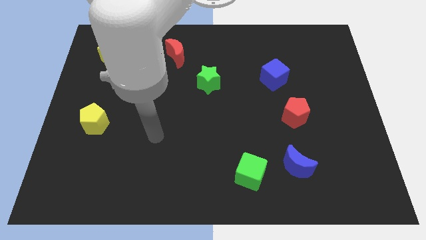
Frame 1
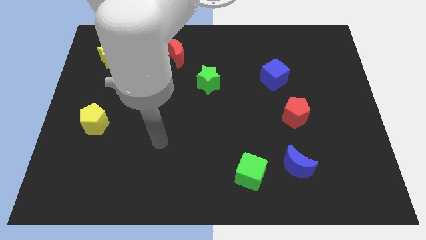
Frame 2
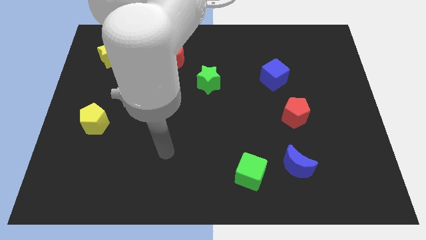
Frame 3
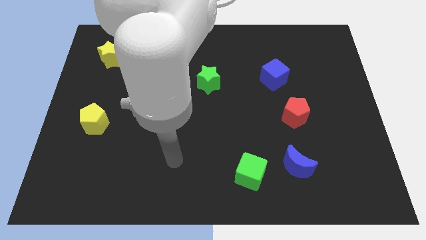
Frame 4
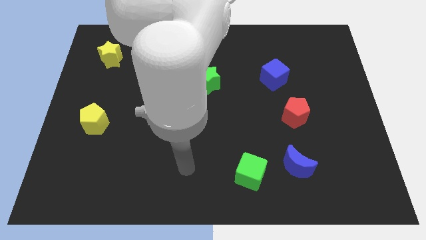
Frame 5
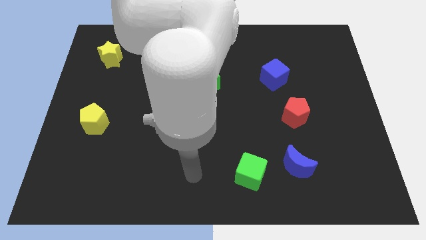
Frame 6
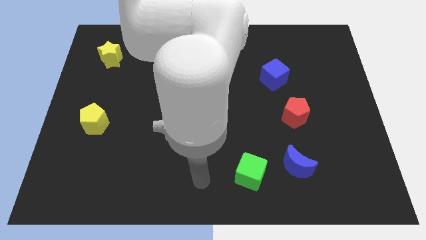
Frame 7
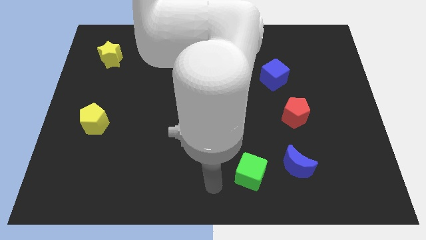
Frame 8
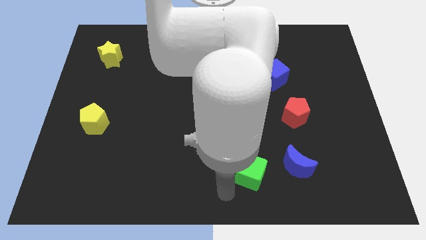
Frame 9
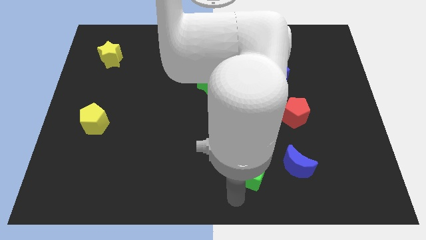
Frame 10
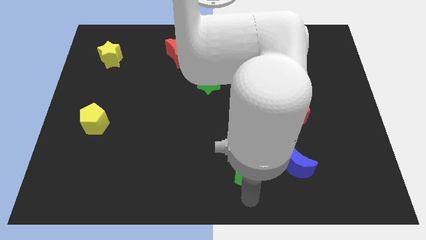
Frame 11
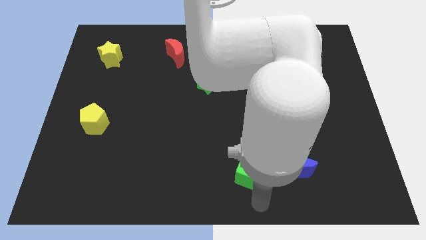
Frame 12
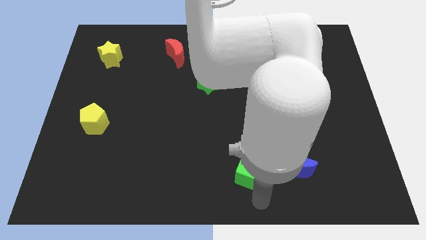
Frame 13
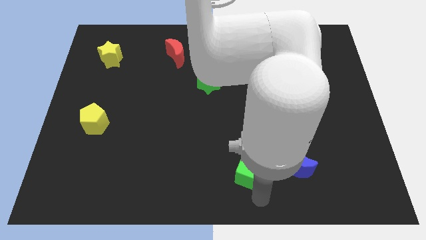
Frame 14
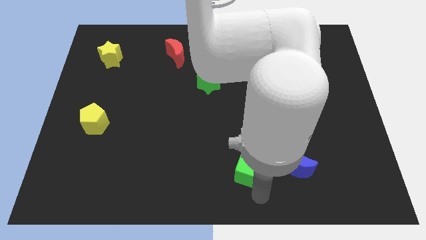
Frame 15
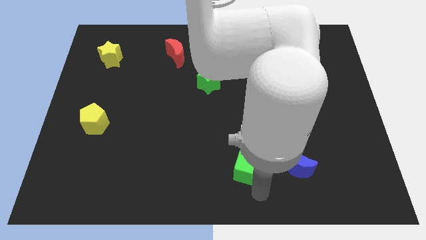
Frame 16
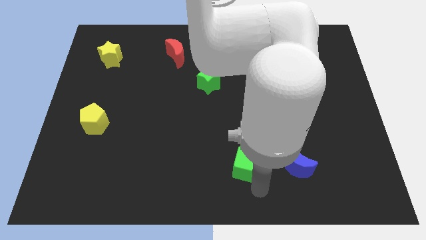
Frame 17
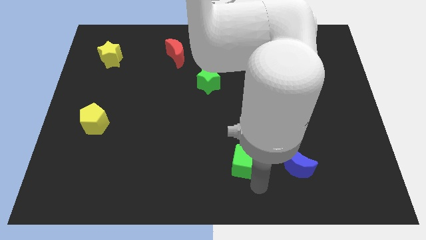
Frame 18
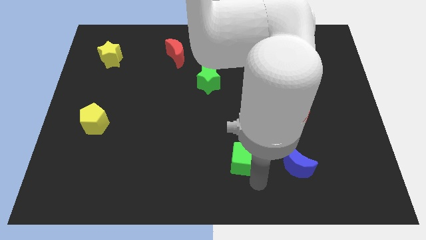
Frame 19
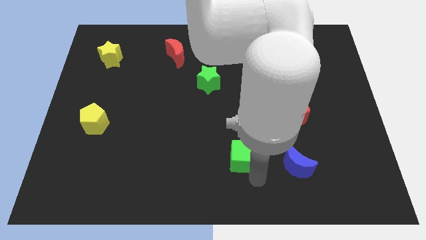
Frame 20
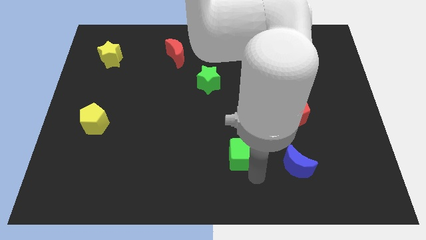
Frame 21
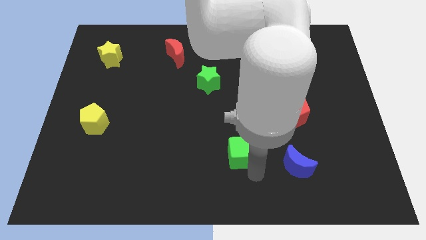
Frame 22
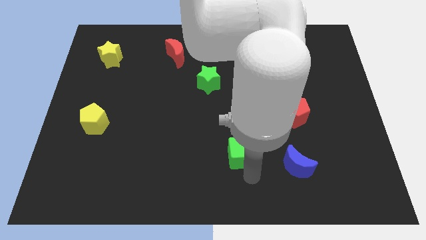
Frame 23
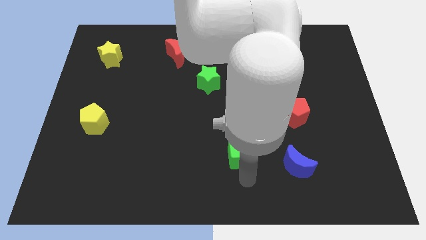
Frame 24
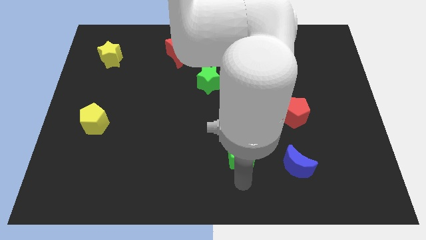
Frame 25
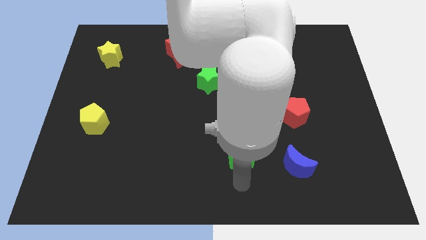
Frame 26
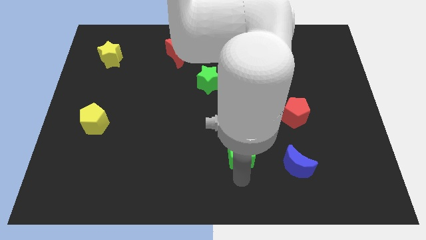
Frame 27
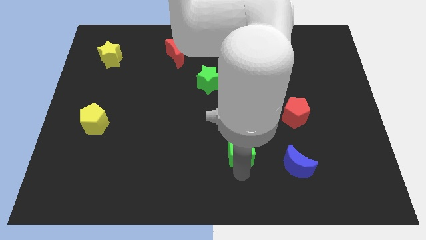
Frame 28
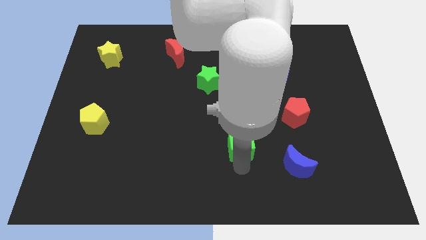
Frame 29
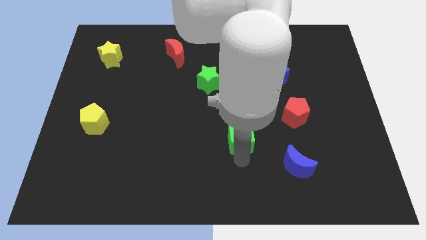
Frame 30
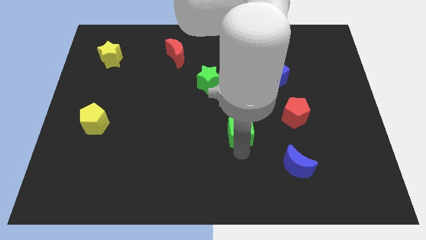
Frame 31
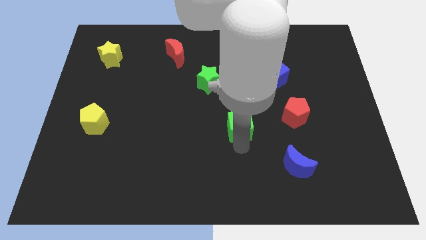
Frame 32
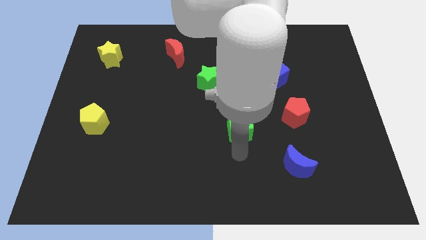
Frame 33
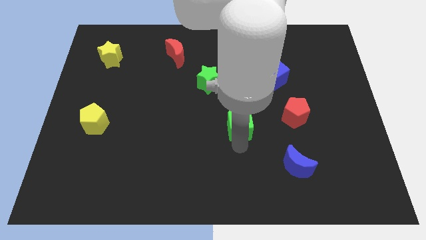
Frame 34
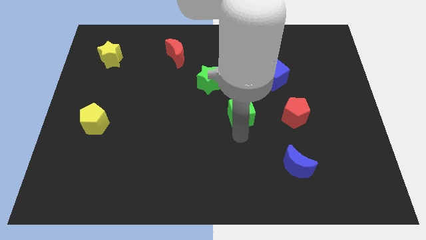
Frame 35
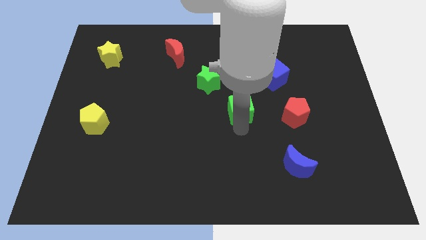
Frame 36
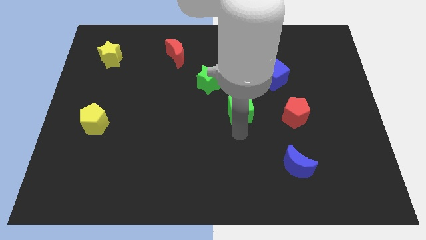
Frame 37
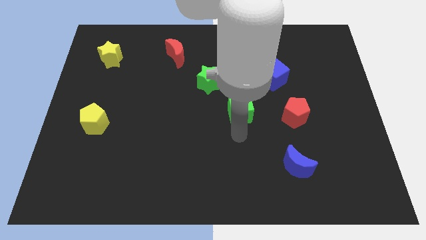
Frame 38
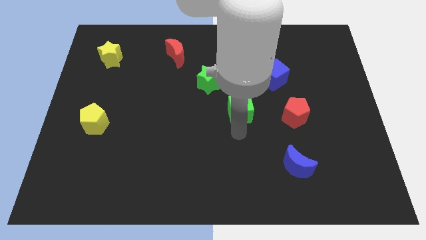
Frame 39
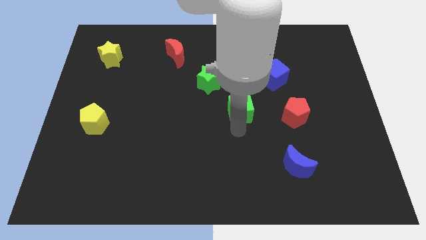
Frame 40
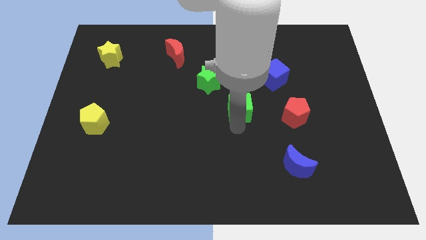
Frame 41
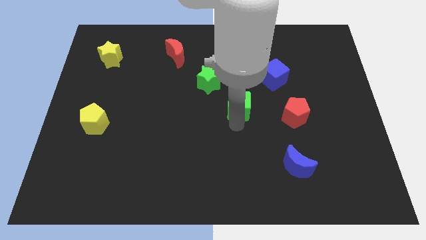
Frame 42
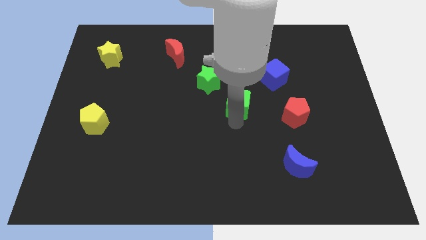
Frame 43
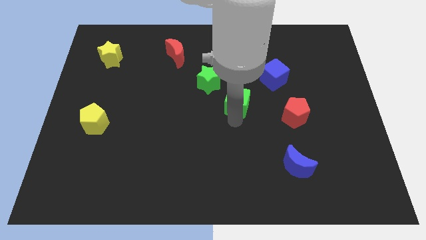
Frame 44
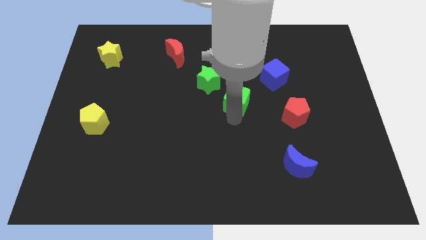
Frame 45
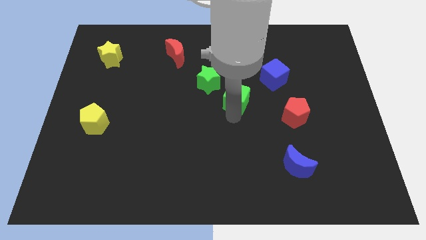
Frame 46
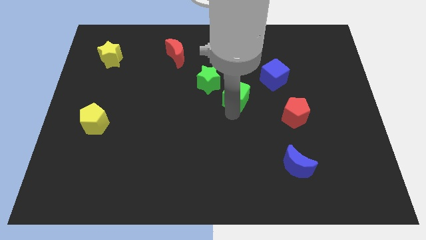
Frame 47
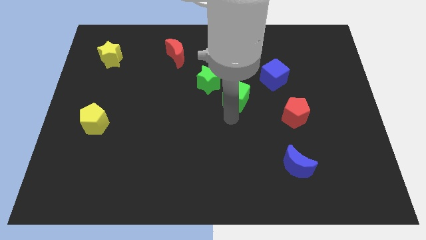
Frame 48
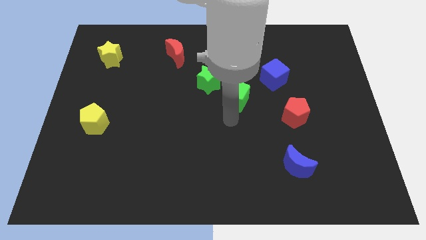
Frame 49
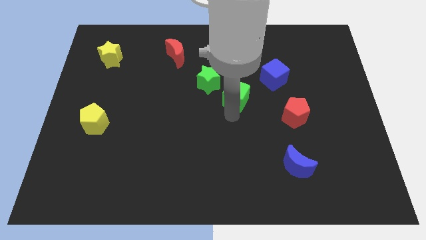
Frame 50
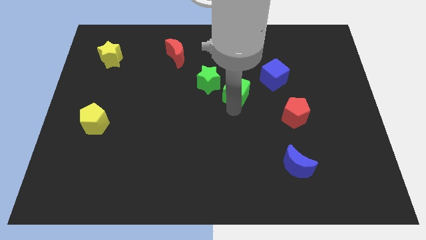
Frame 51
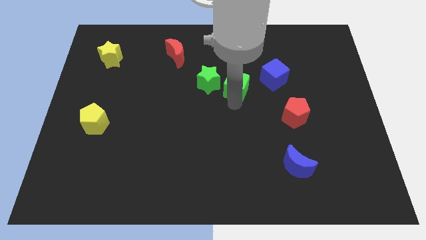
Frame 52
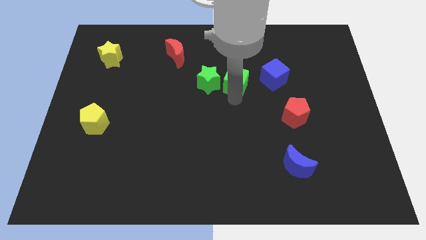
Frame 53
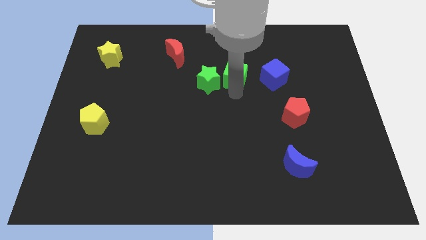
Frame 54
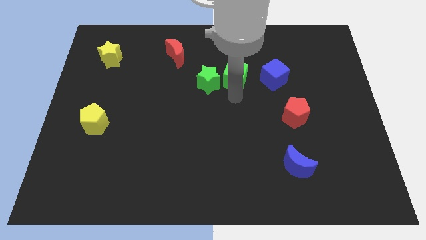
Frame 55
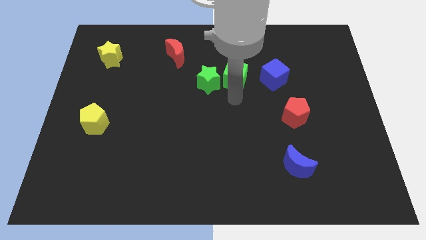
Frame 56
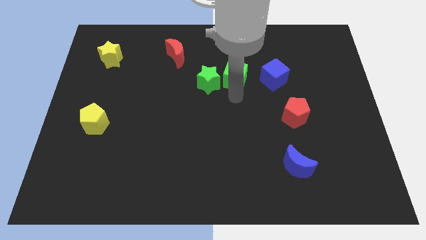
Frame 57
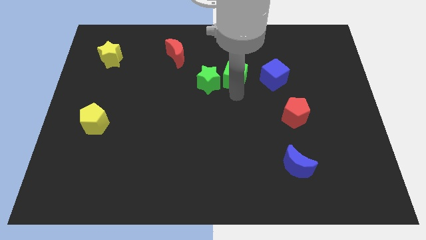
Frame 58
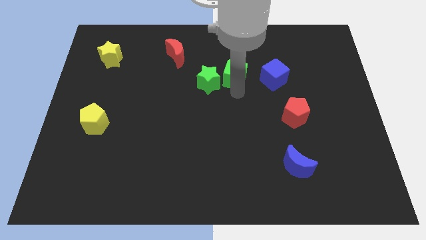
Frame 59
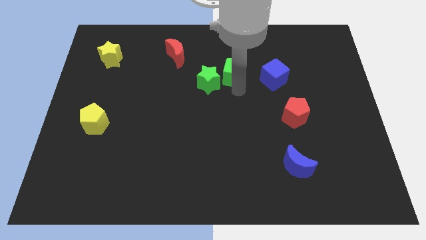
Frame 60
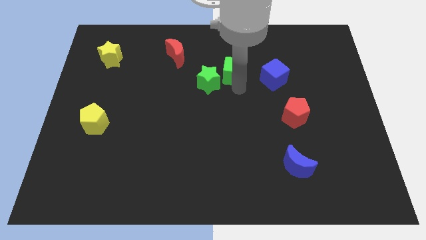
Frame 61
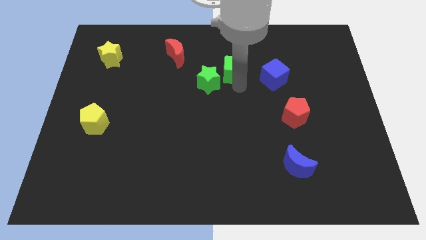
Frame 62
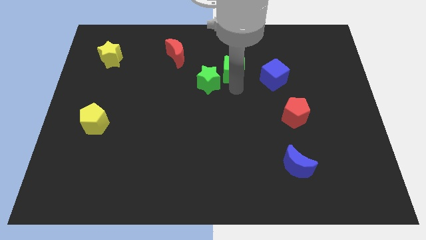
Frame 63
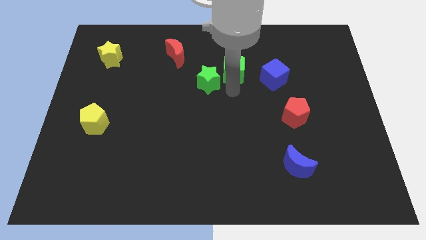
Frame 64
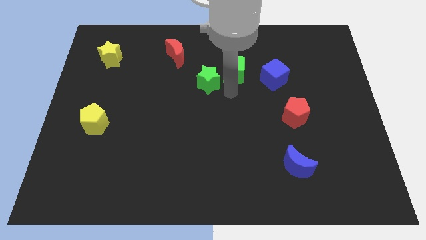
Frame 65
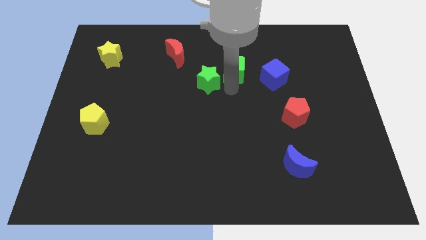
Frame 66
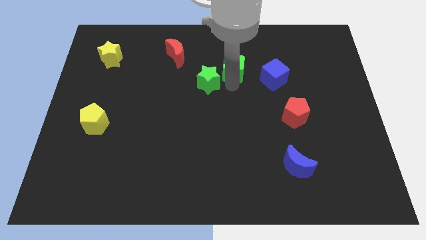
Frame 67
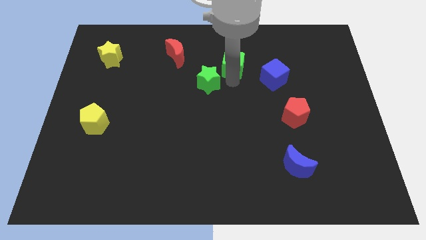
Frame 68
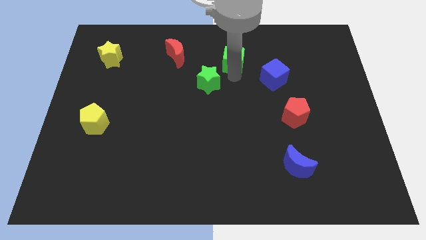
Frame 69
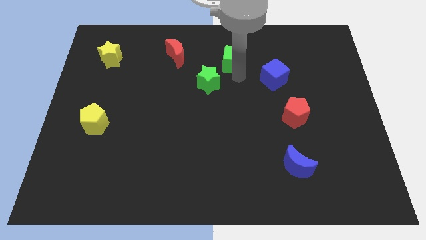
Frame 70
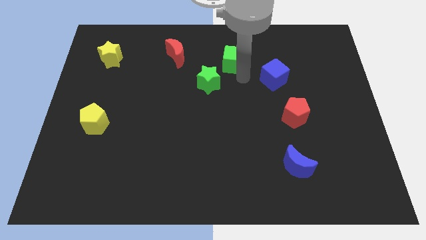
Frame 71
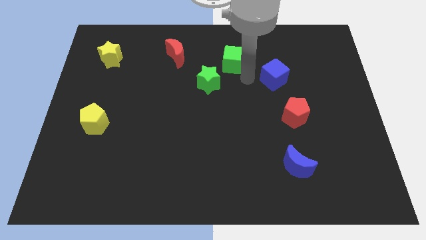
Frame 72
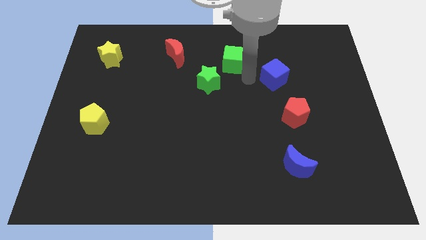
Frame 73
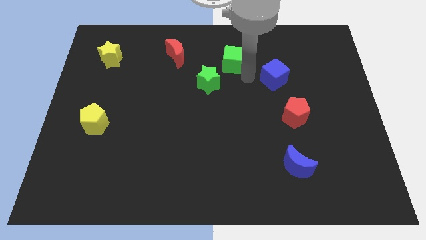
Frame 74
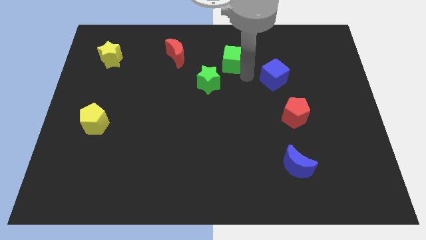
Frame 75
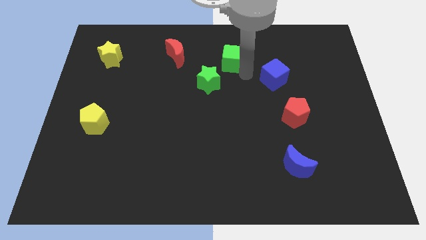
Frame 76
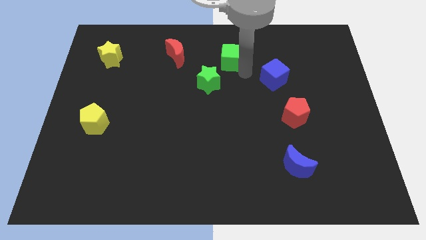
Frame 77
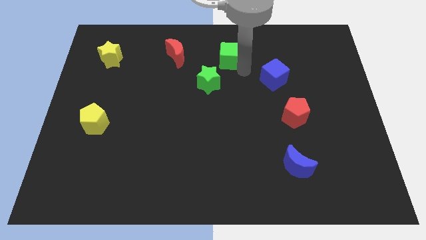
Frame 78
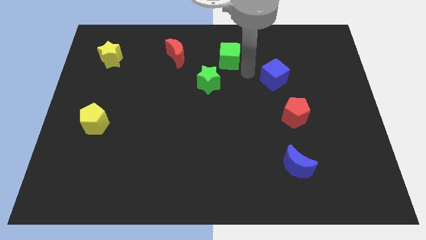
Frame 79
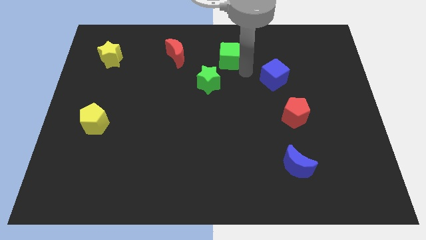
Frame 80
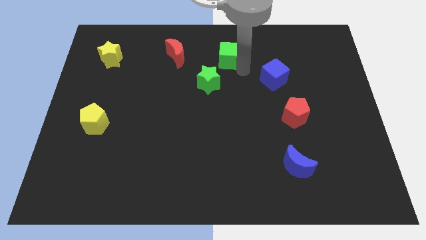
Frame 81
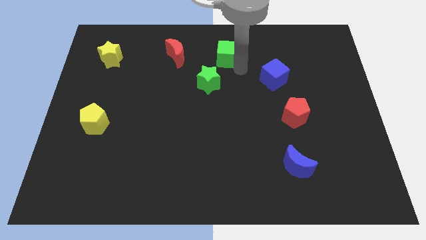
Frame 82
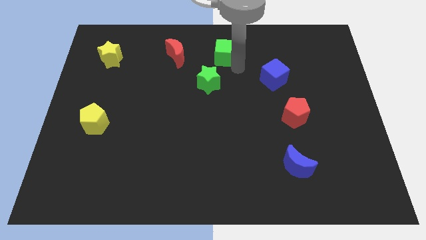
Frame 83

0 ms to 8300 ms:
move the green cube to the towards your base
